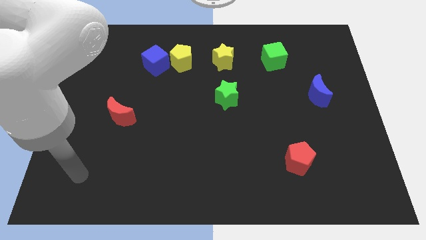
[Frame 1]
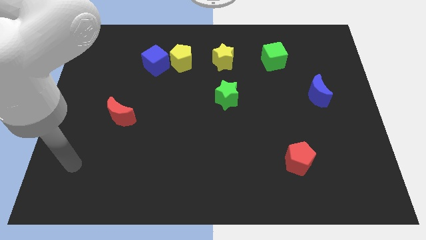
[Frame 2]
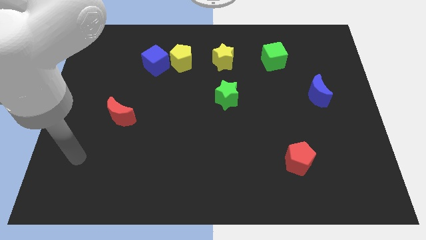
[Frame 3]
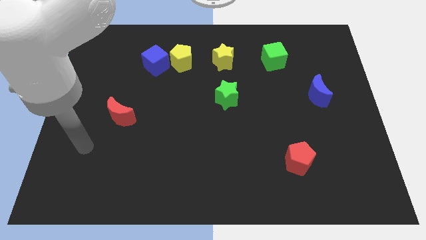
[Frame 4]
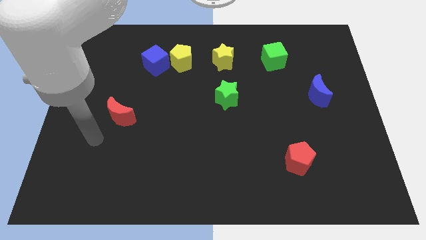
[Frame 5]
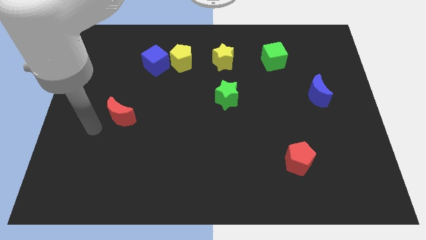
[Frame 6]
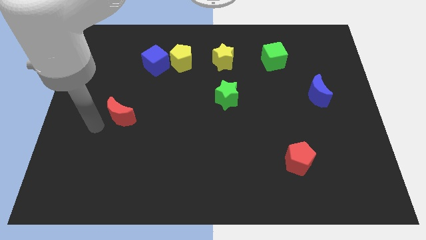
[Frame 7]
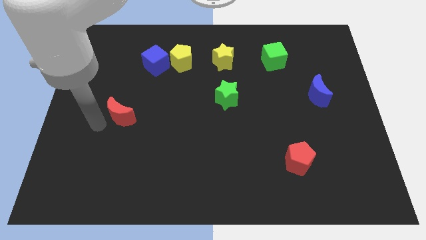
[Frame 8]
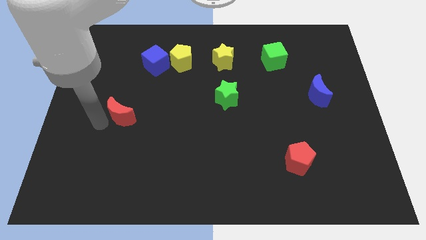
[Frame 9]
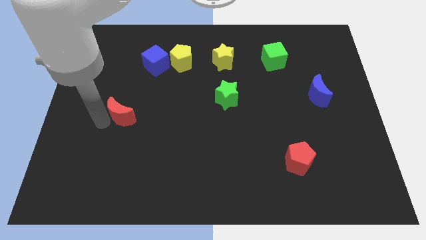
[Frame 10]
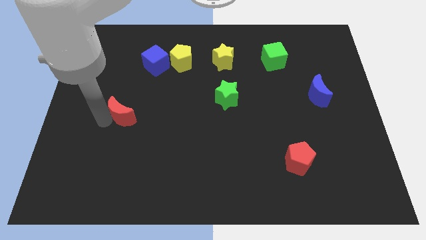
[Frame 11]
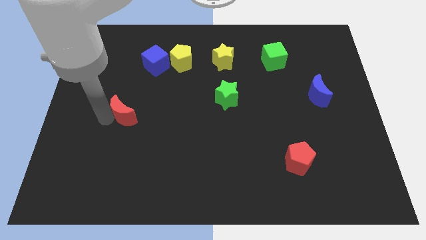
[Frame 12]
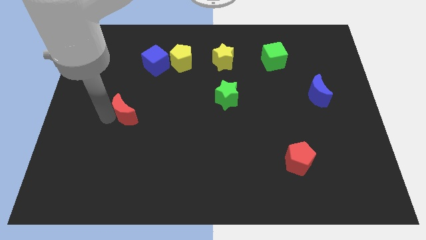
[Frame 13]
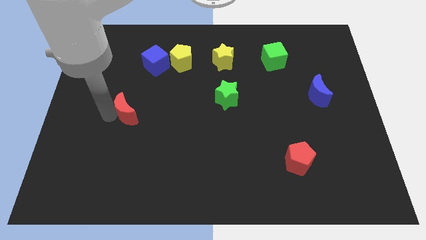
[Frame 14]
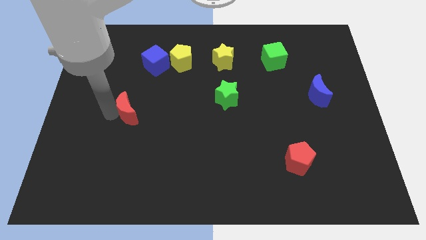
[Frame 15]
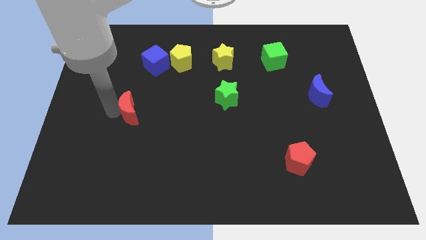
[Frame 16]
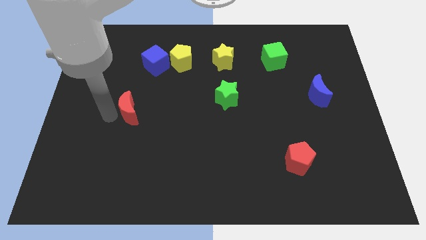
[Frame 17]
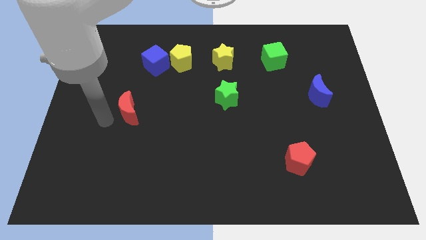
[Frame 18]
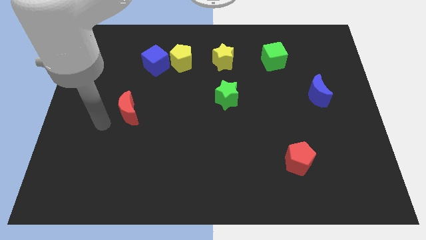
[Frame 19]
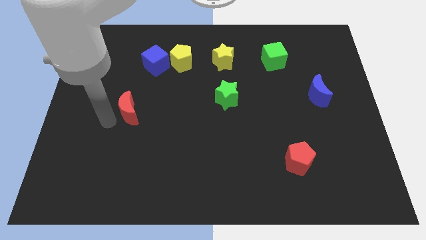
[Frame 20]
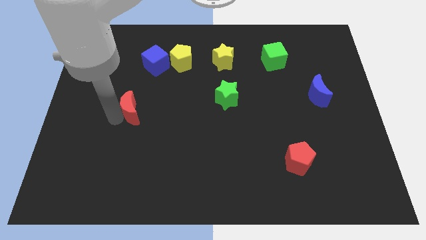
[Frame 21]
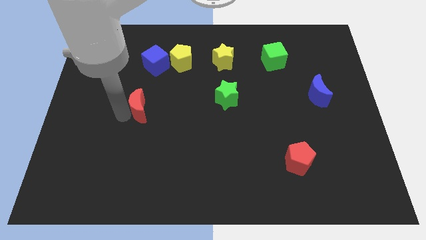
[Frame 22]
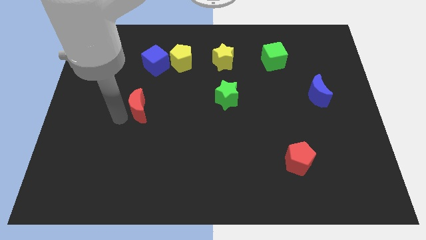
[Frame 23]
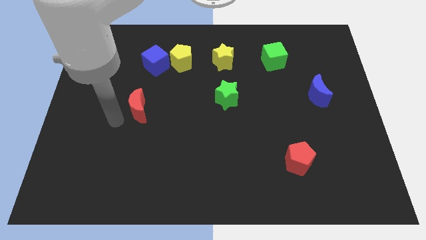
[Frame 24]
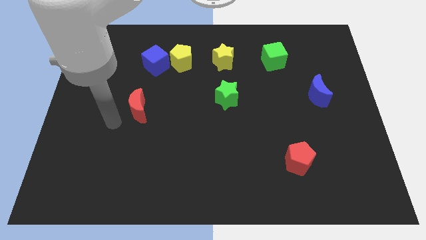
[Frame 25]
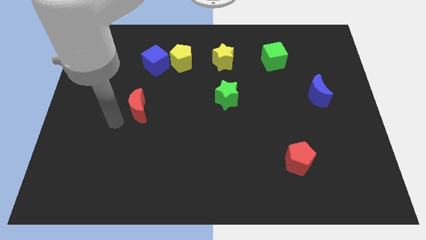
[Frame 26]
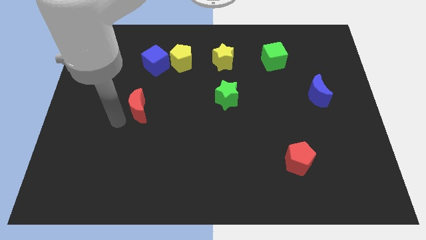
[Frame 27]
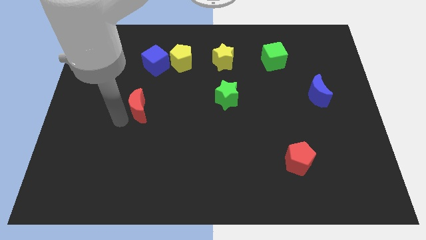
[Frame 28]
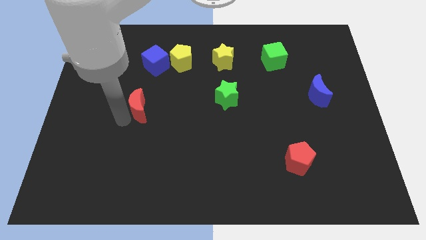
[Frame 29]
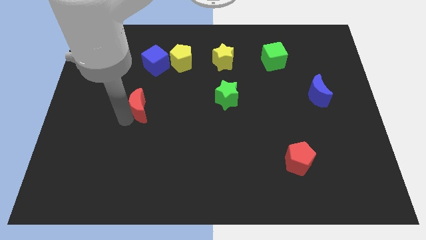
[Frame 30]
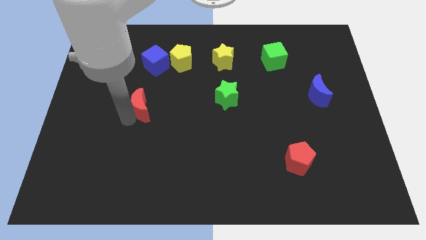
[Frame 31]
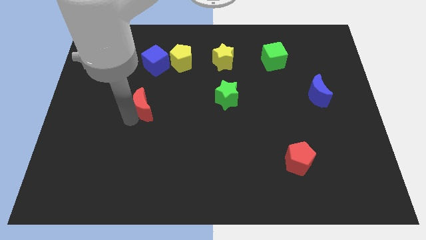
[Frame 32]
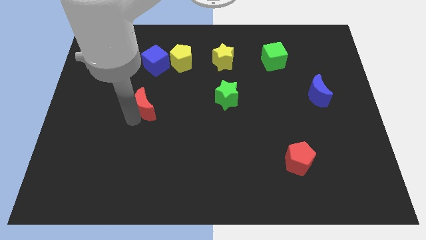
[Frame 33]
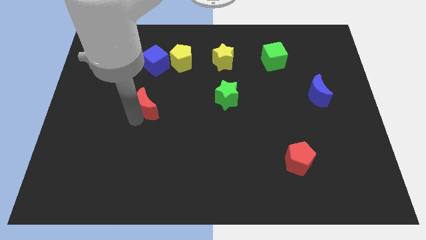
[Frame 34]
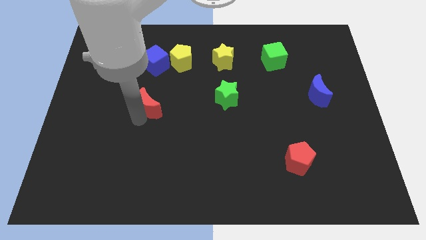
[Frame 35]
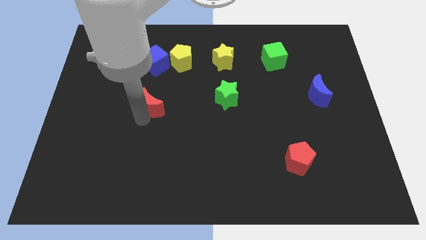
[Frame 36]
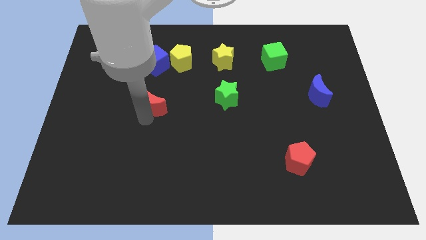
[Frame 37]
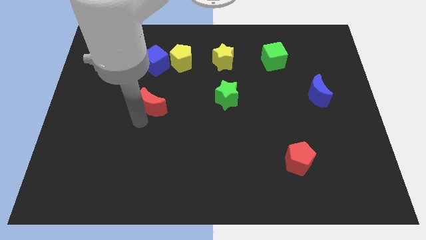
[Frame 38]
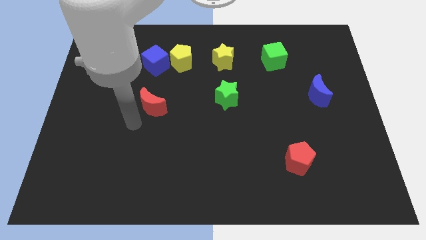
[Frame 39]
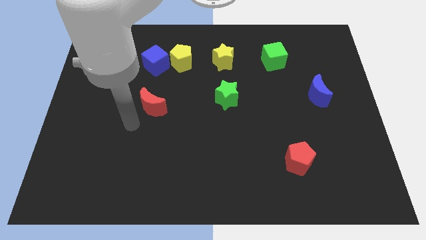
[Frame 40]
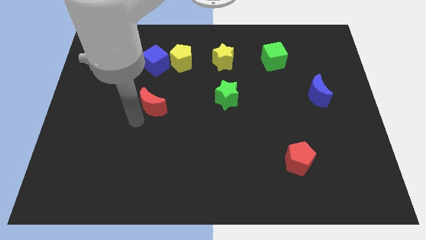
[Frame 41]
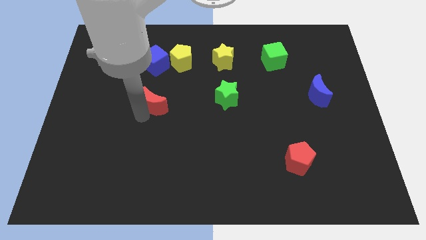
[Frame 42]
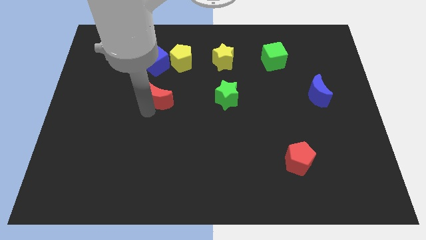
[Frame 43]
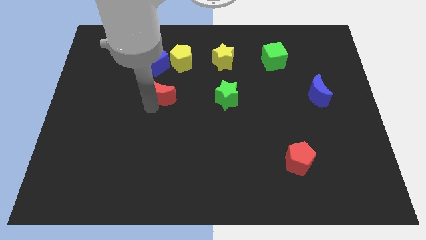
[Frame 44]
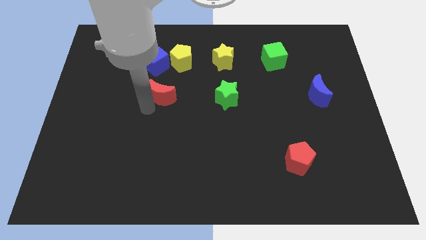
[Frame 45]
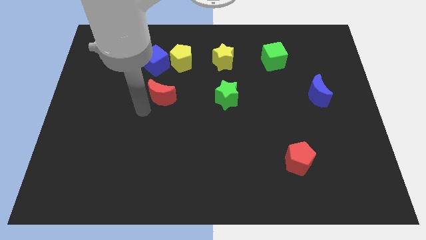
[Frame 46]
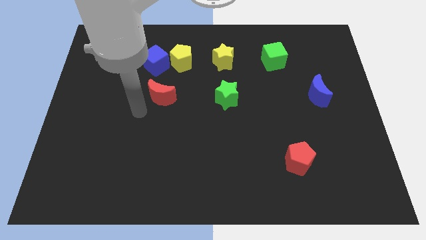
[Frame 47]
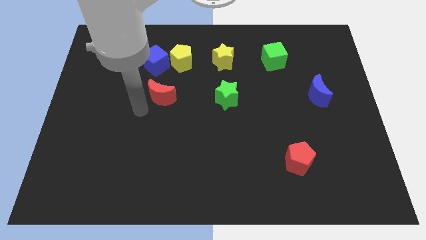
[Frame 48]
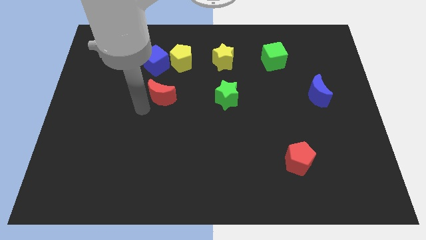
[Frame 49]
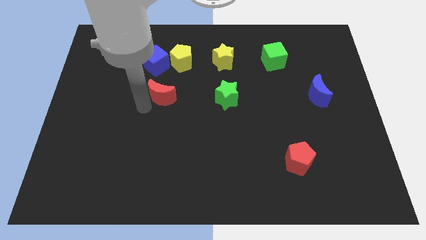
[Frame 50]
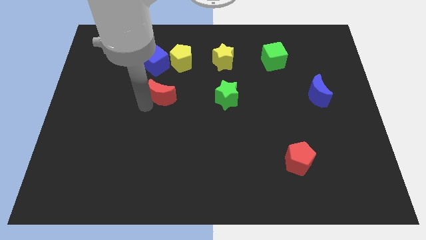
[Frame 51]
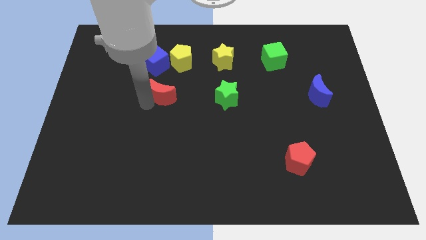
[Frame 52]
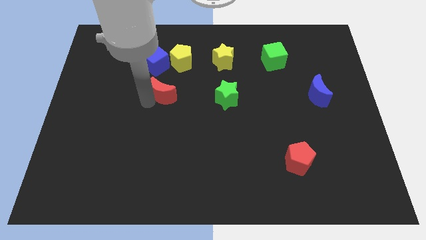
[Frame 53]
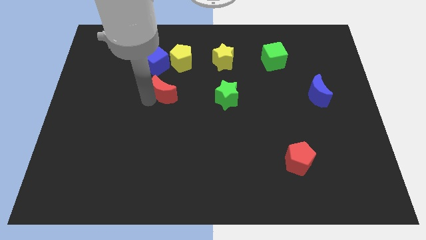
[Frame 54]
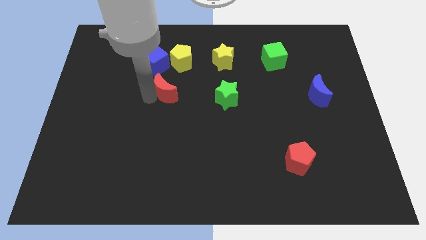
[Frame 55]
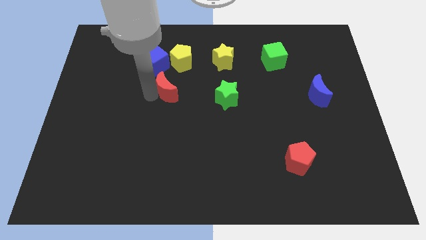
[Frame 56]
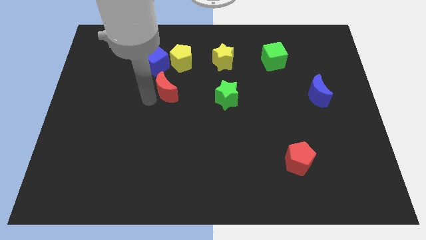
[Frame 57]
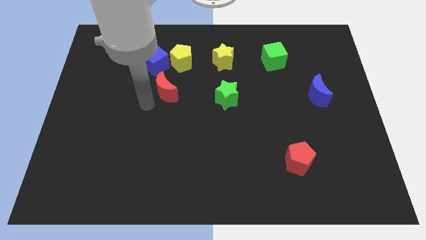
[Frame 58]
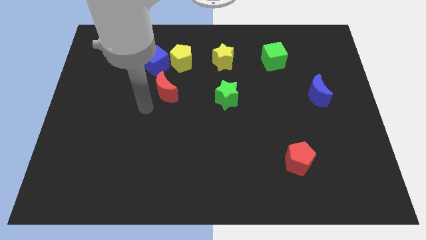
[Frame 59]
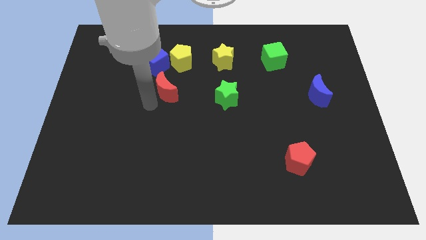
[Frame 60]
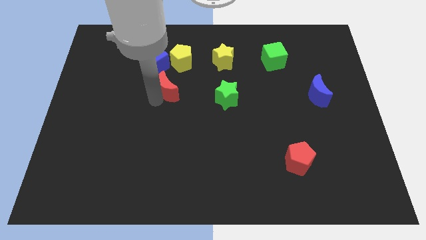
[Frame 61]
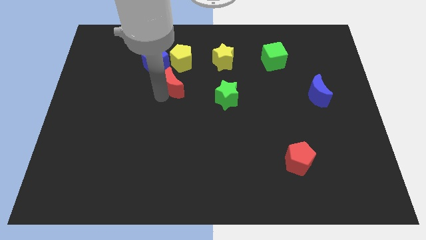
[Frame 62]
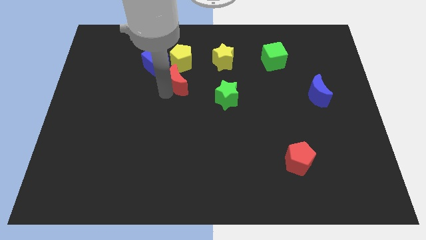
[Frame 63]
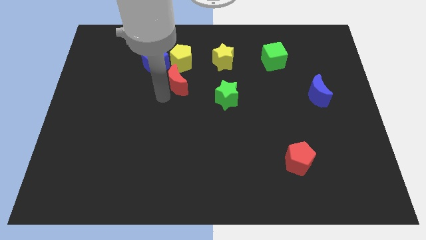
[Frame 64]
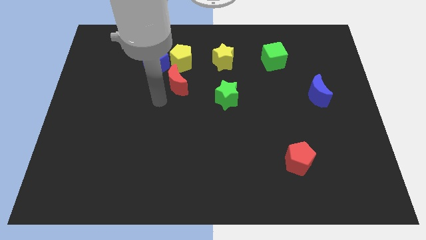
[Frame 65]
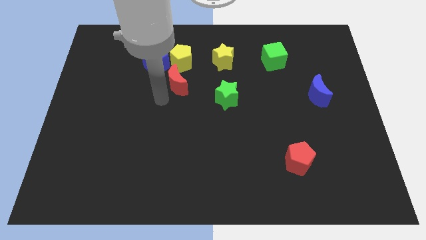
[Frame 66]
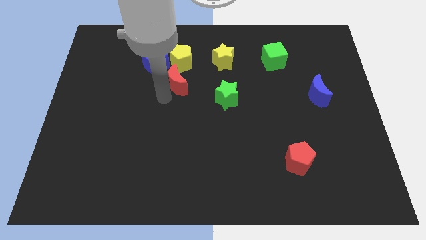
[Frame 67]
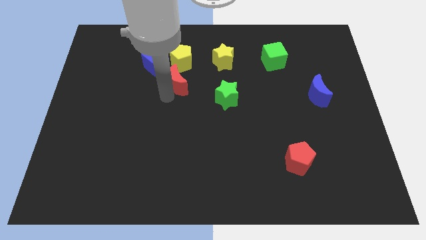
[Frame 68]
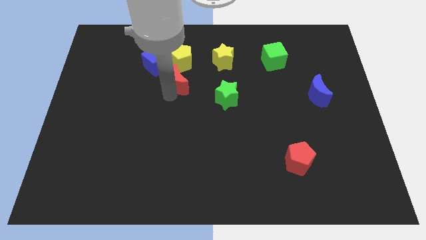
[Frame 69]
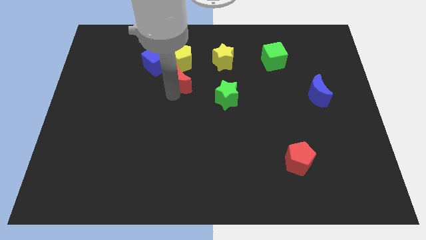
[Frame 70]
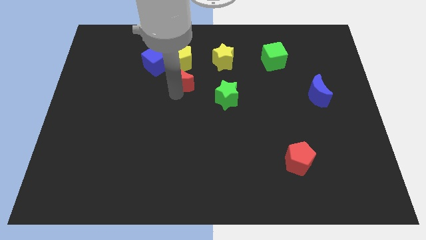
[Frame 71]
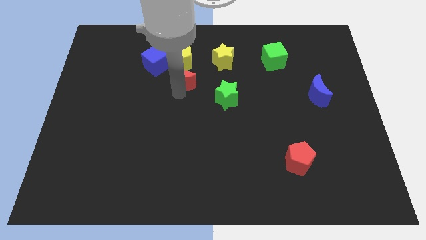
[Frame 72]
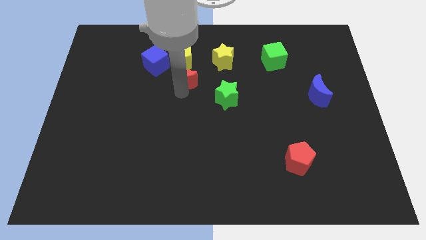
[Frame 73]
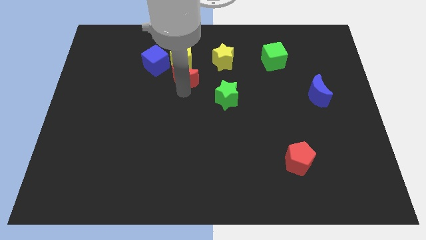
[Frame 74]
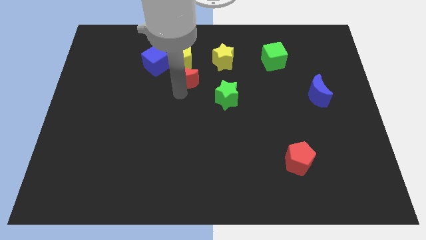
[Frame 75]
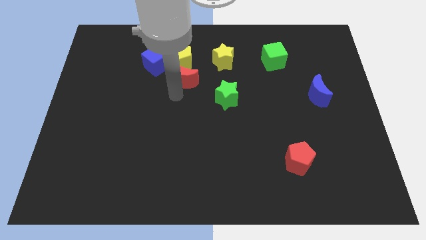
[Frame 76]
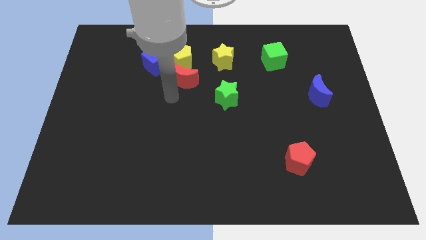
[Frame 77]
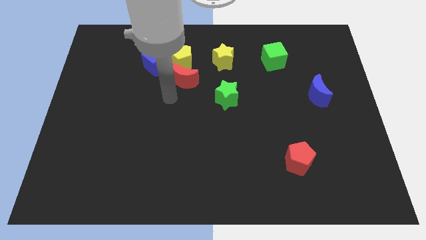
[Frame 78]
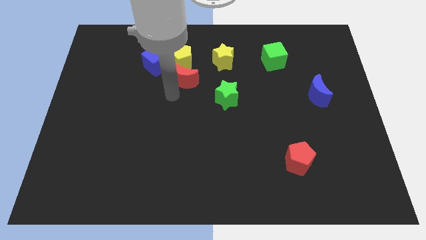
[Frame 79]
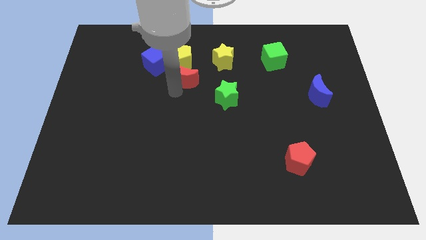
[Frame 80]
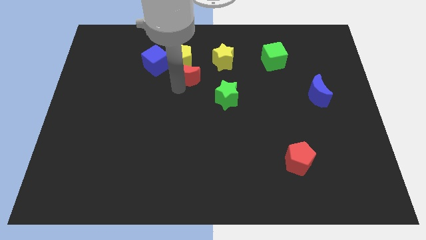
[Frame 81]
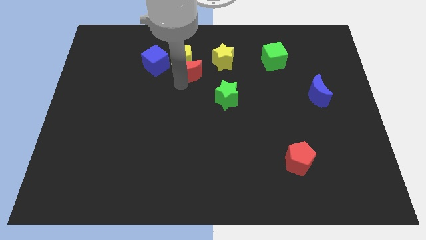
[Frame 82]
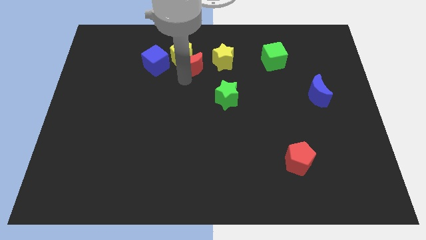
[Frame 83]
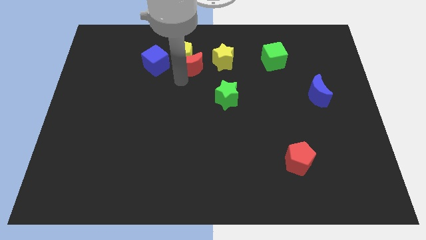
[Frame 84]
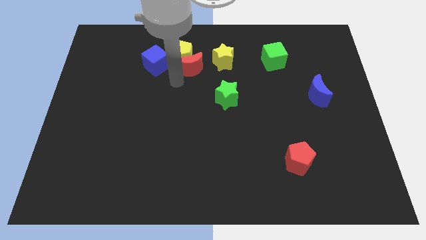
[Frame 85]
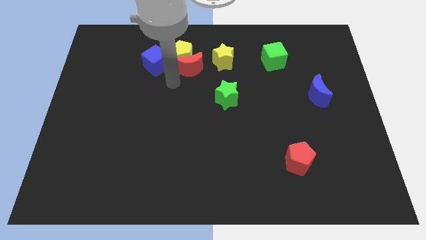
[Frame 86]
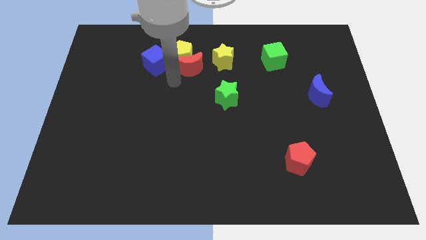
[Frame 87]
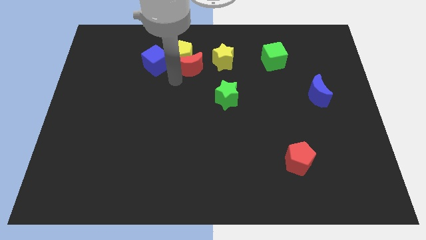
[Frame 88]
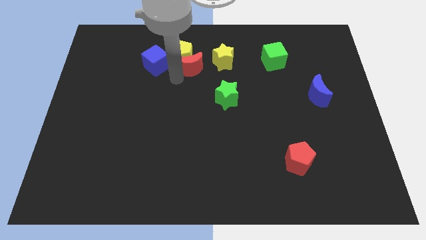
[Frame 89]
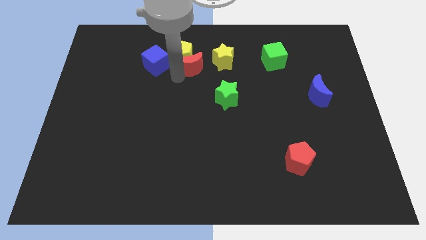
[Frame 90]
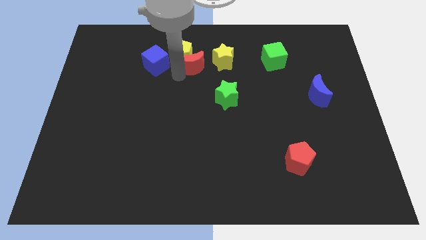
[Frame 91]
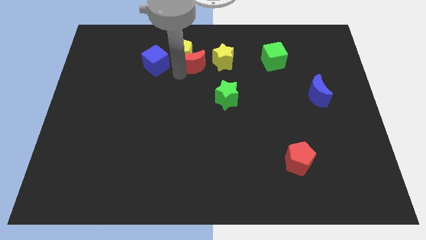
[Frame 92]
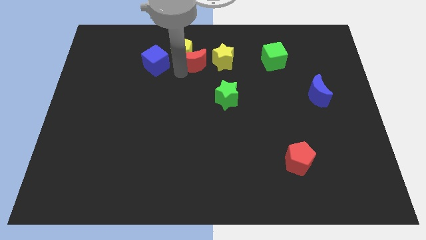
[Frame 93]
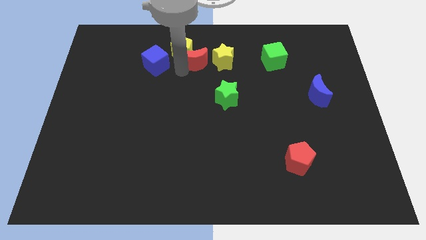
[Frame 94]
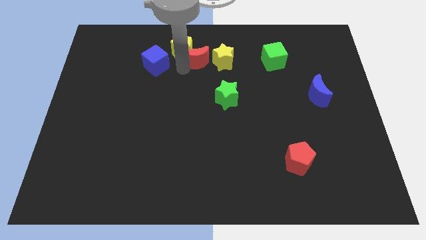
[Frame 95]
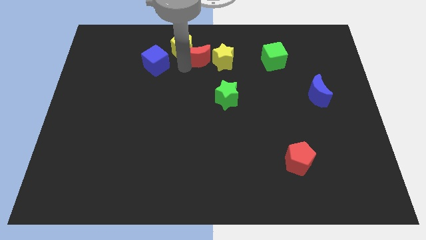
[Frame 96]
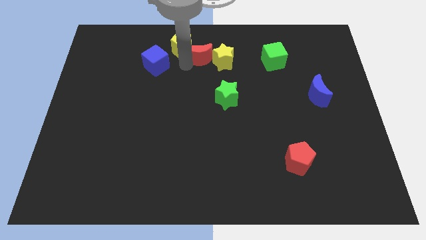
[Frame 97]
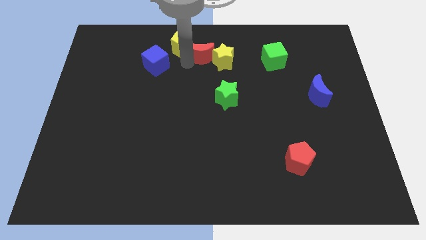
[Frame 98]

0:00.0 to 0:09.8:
move the red moon to the towards your base
